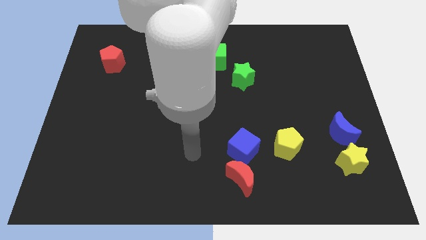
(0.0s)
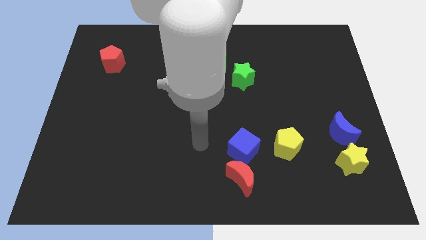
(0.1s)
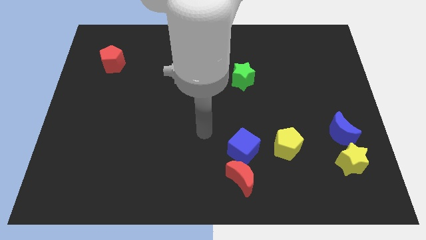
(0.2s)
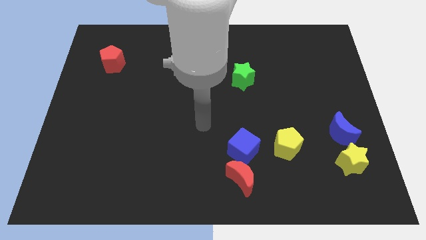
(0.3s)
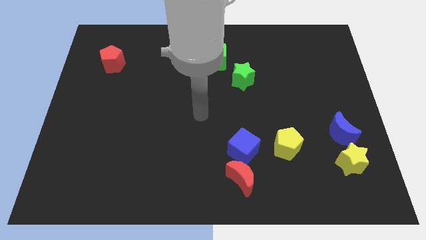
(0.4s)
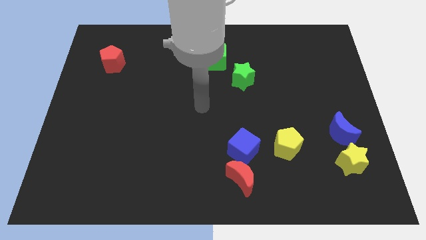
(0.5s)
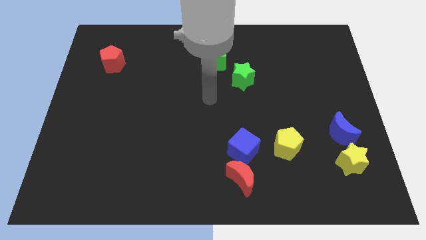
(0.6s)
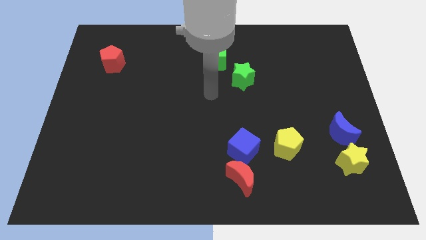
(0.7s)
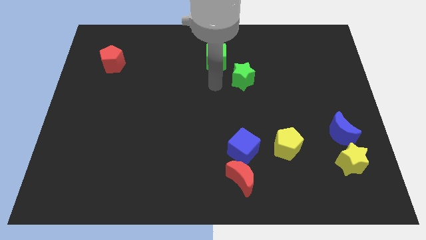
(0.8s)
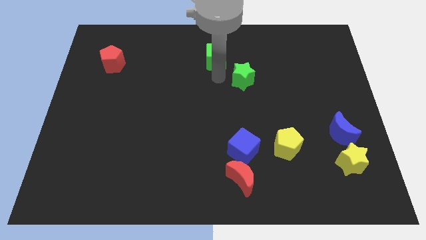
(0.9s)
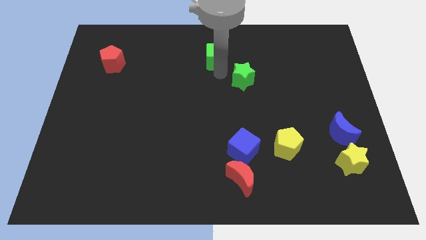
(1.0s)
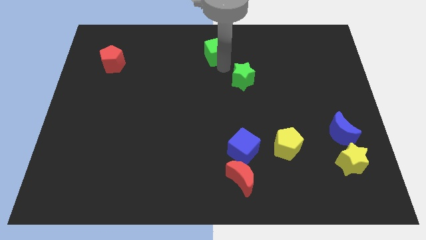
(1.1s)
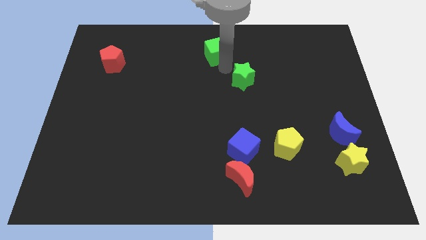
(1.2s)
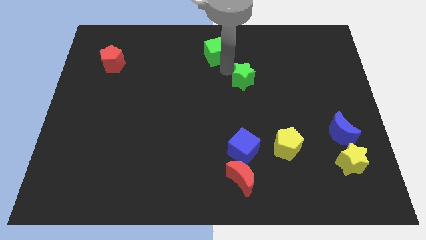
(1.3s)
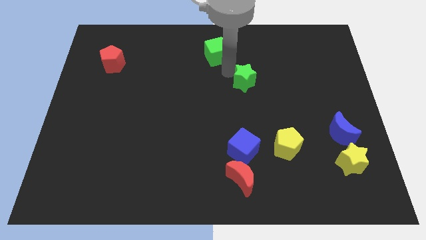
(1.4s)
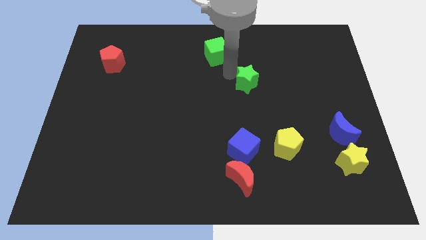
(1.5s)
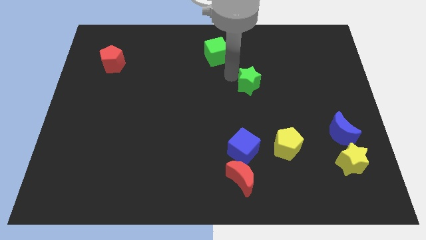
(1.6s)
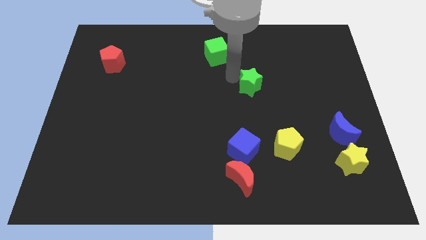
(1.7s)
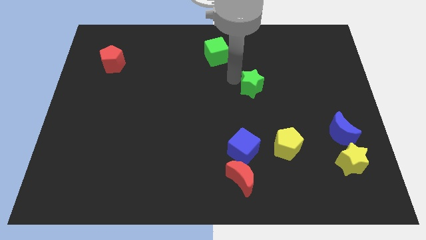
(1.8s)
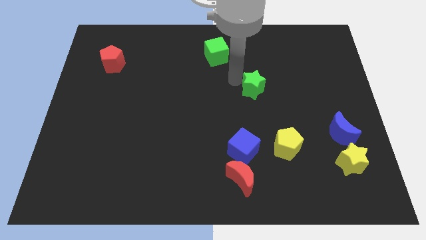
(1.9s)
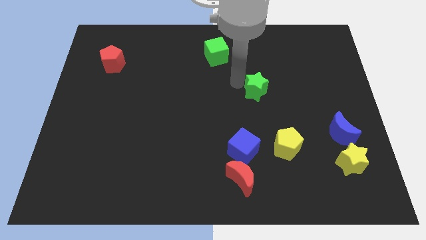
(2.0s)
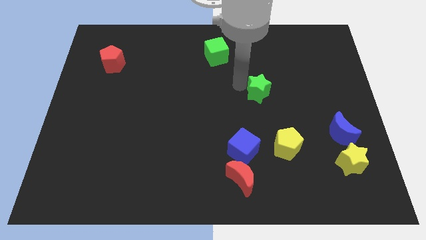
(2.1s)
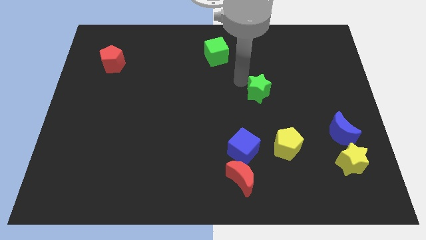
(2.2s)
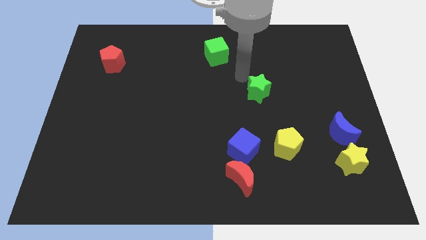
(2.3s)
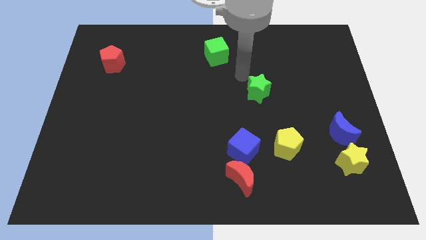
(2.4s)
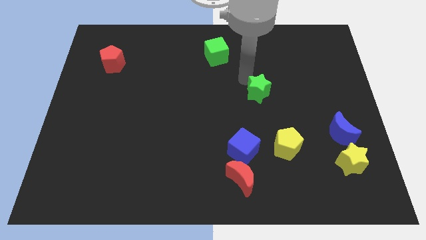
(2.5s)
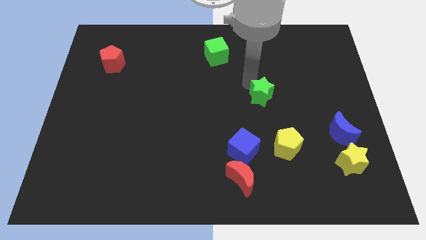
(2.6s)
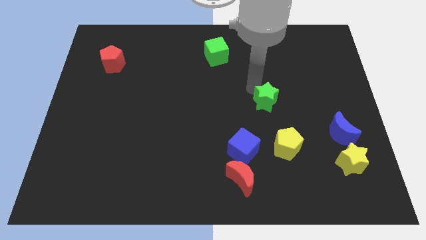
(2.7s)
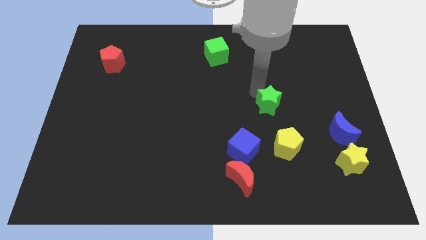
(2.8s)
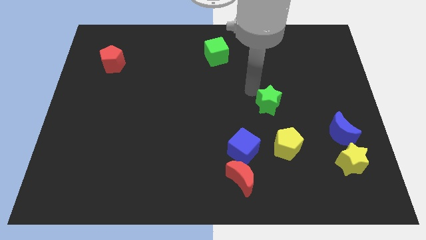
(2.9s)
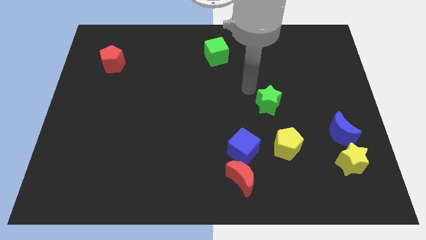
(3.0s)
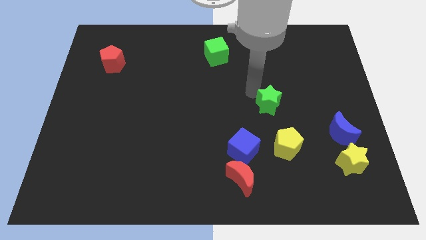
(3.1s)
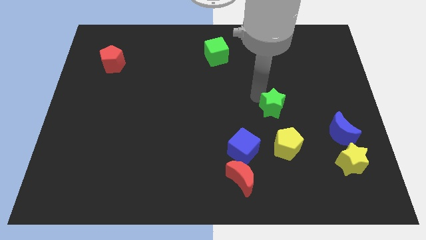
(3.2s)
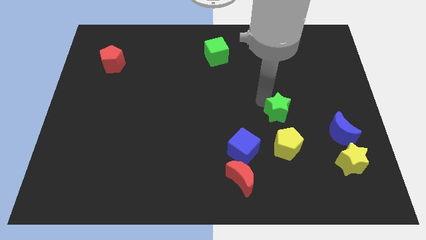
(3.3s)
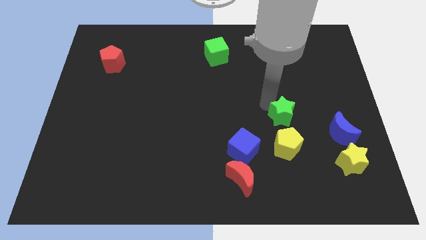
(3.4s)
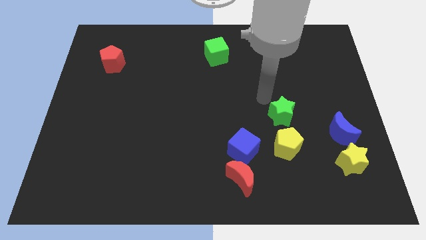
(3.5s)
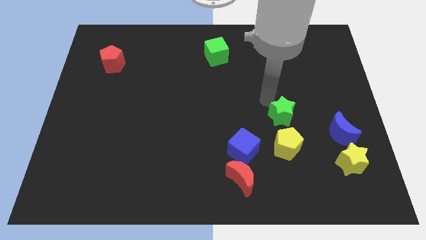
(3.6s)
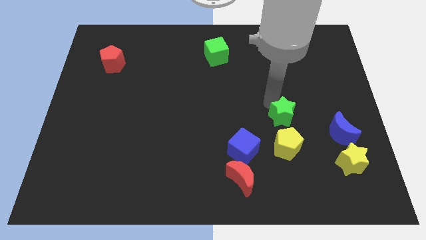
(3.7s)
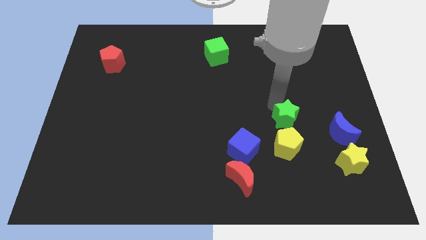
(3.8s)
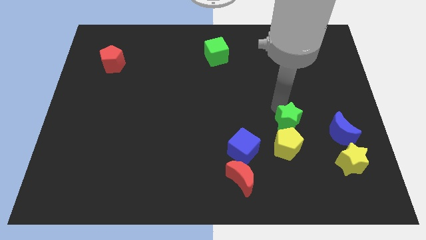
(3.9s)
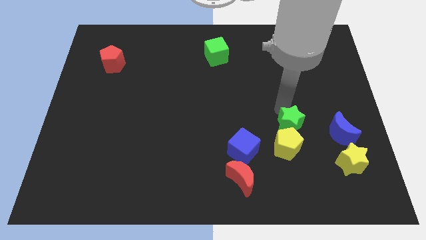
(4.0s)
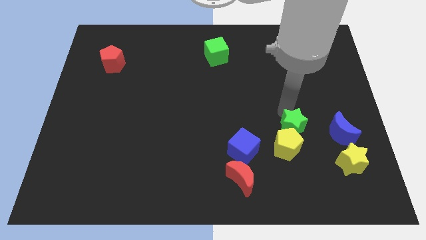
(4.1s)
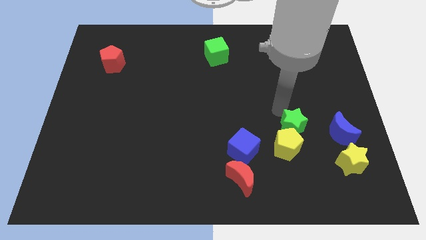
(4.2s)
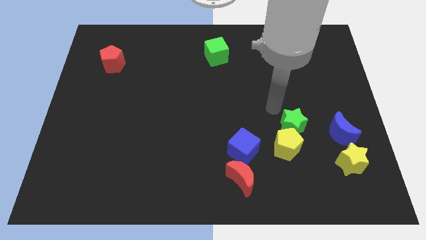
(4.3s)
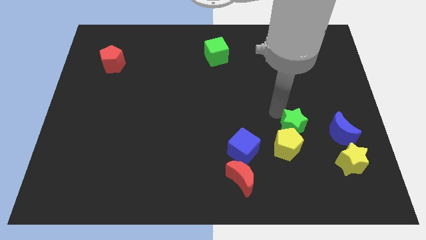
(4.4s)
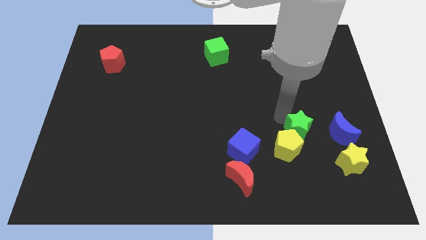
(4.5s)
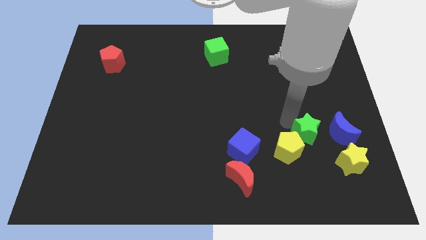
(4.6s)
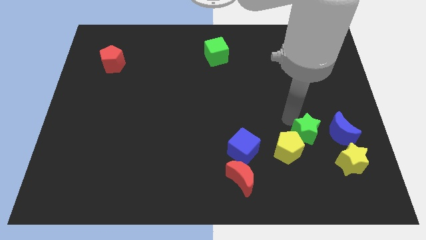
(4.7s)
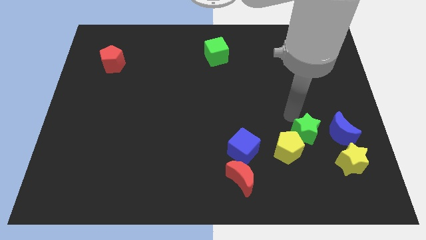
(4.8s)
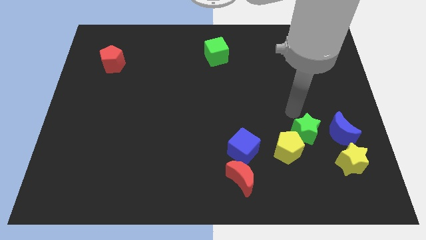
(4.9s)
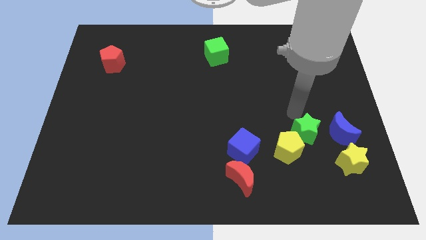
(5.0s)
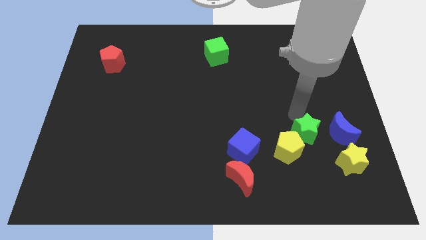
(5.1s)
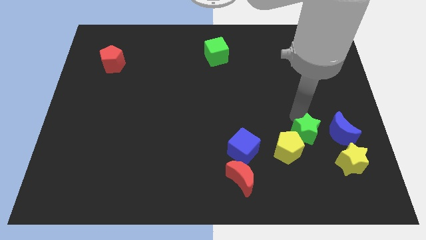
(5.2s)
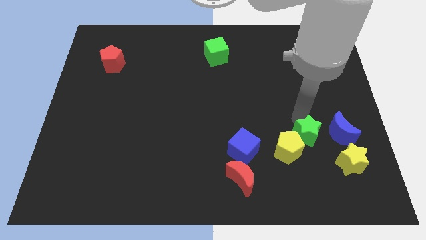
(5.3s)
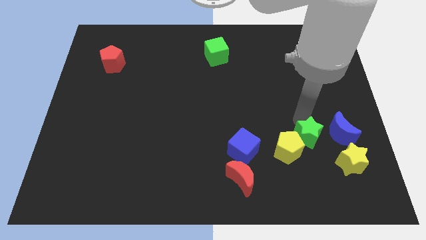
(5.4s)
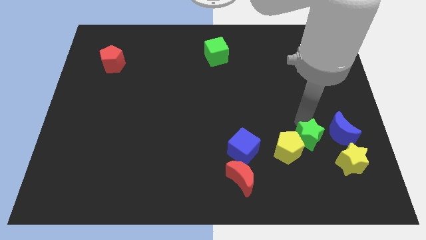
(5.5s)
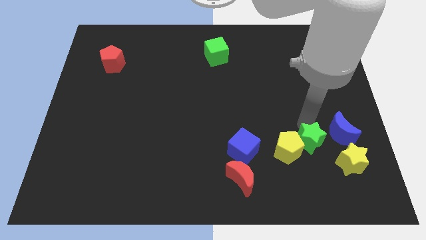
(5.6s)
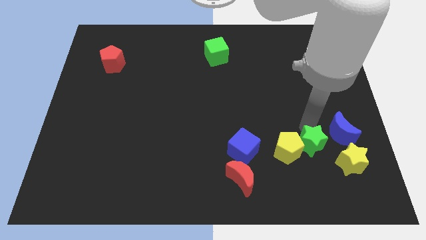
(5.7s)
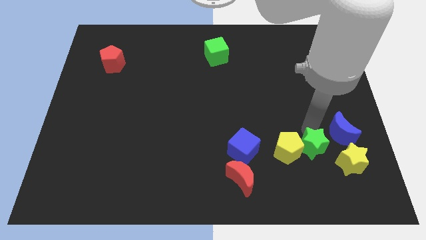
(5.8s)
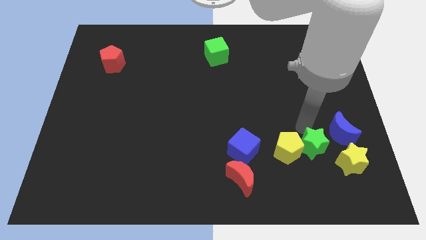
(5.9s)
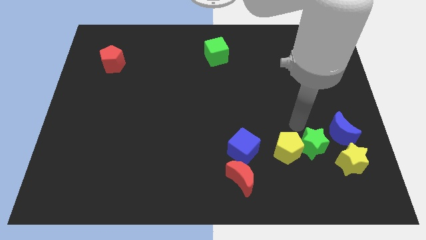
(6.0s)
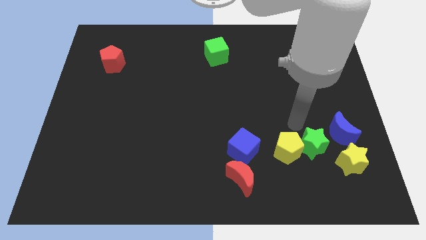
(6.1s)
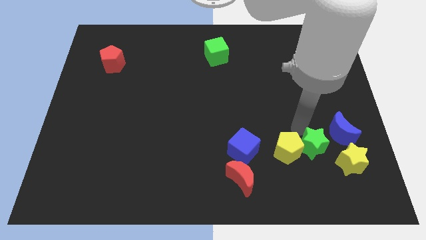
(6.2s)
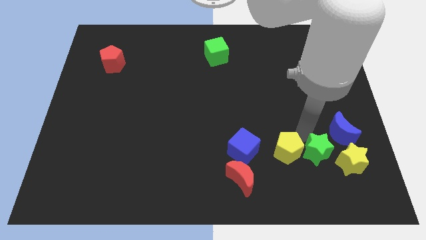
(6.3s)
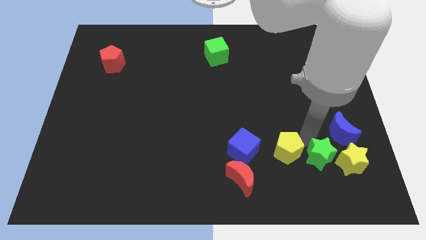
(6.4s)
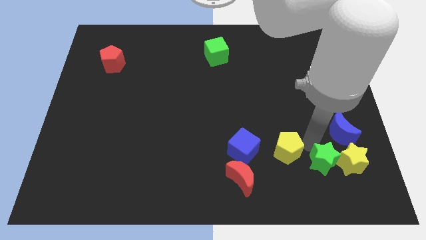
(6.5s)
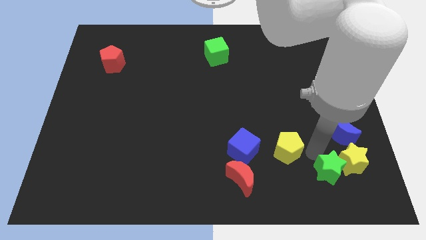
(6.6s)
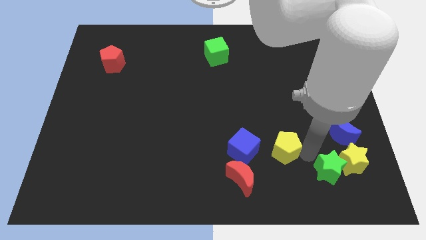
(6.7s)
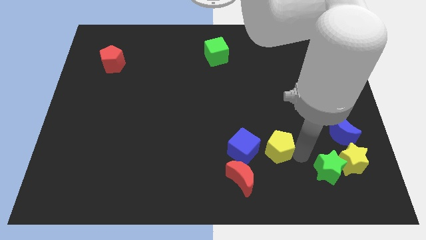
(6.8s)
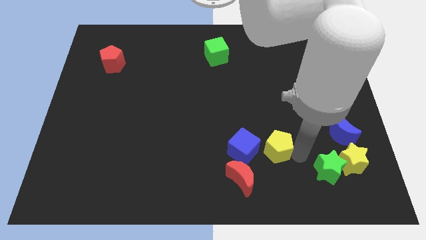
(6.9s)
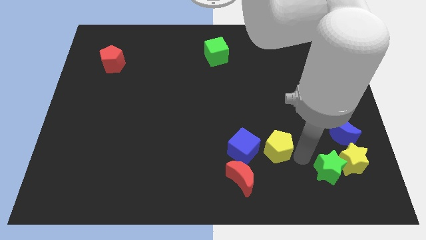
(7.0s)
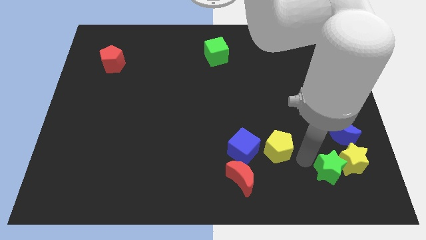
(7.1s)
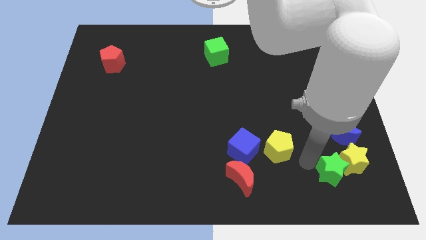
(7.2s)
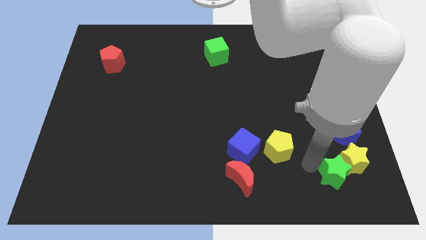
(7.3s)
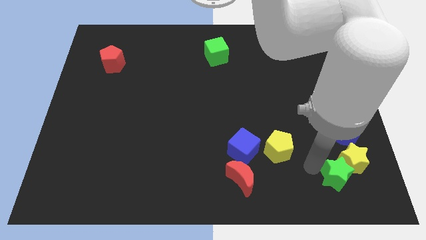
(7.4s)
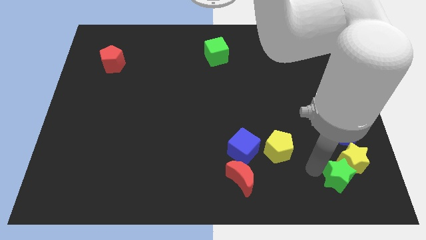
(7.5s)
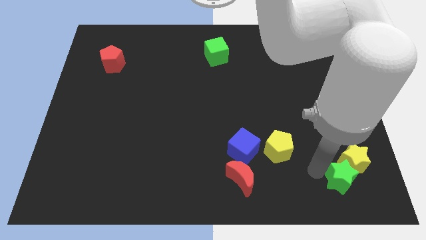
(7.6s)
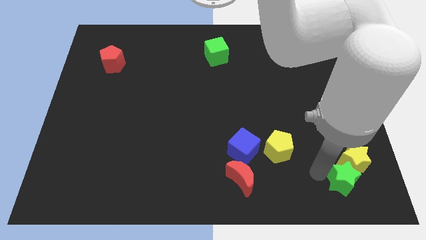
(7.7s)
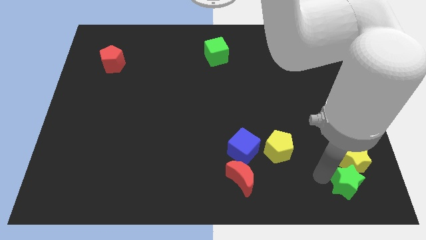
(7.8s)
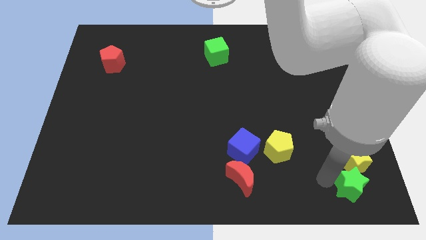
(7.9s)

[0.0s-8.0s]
move the green star to the bottom right of the board

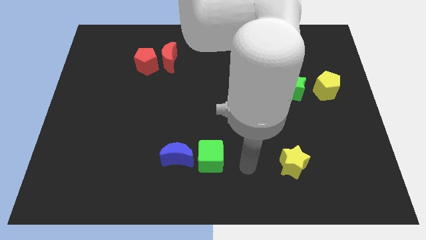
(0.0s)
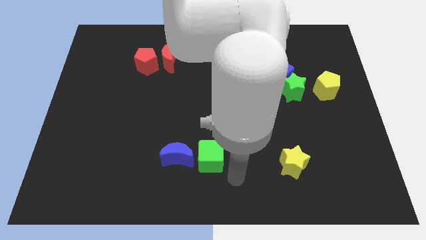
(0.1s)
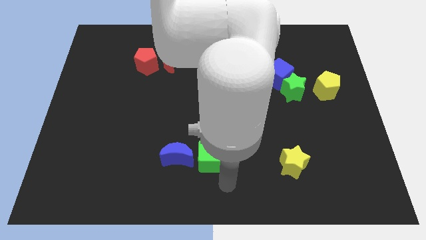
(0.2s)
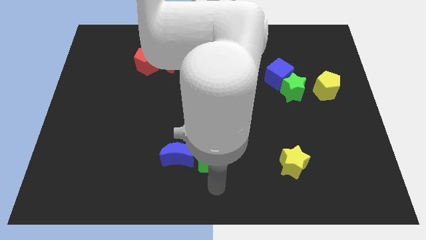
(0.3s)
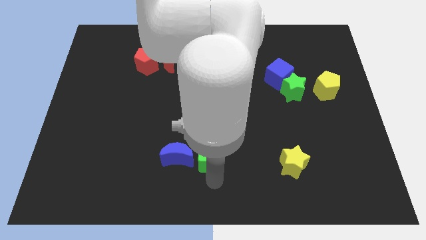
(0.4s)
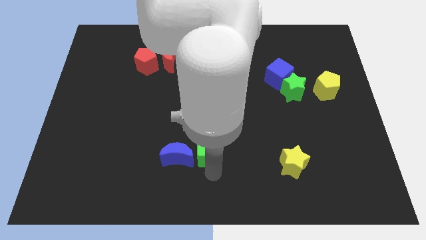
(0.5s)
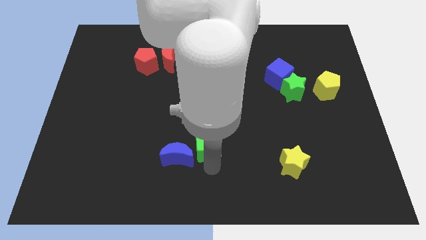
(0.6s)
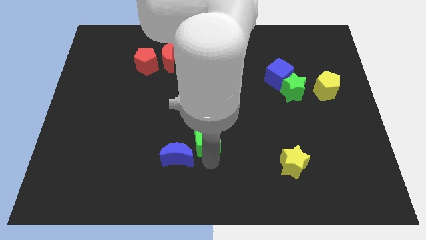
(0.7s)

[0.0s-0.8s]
move the green cube to the middle of the board
